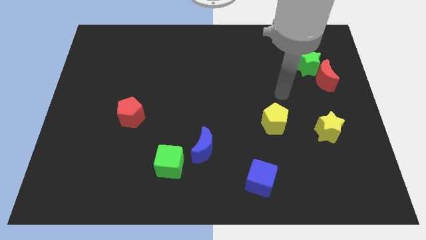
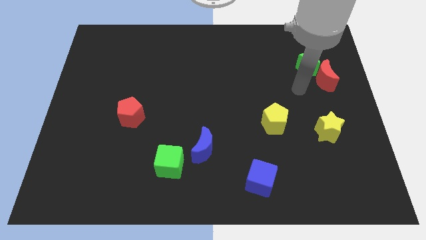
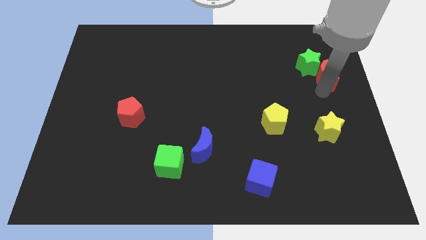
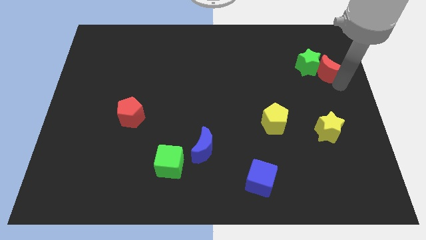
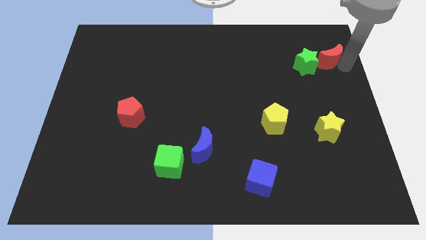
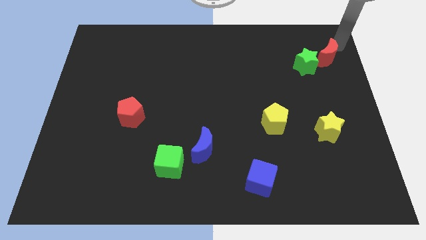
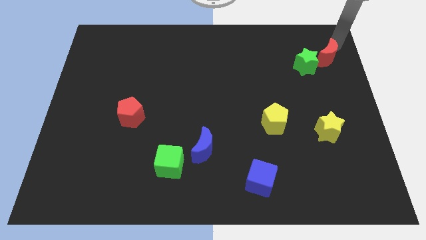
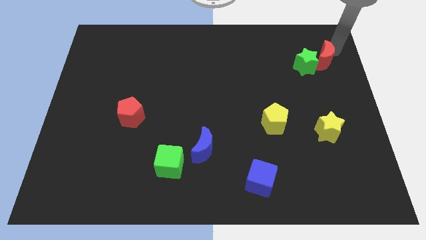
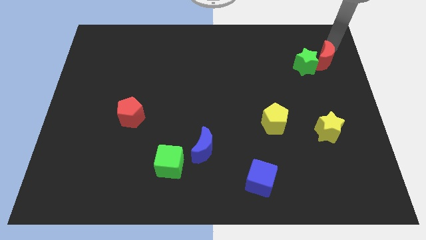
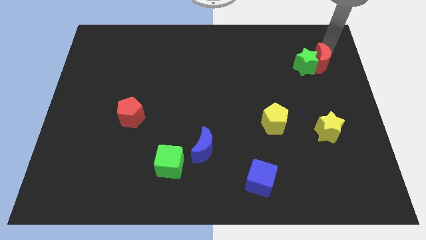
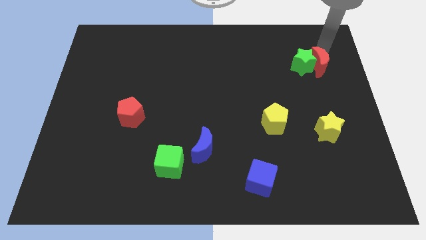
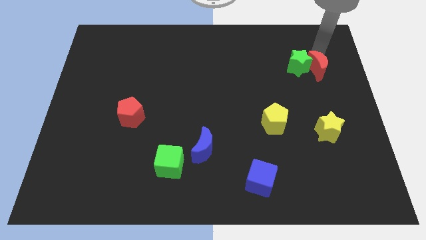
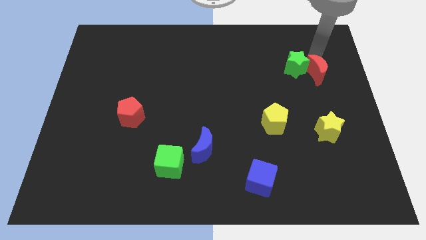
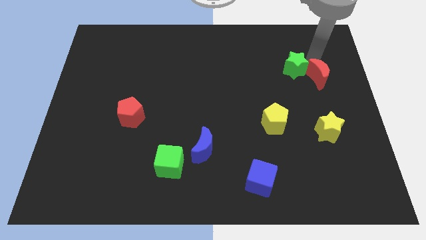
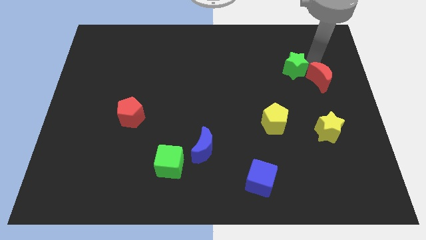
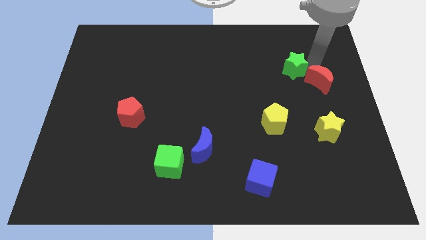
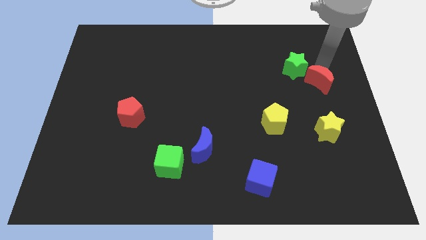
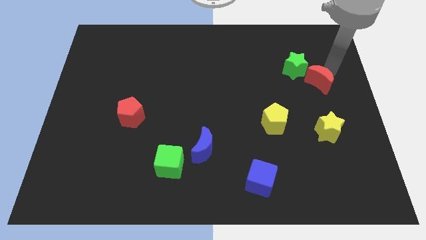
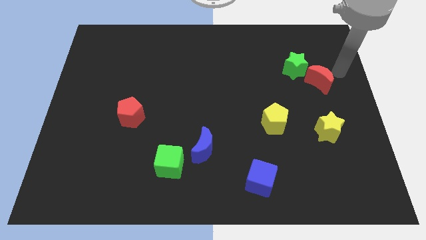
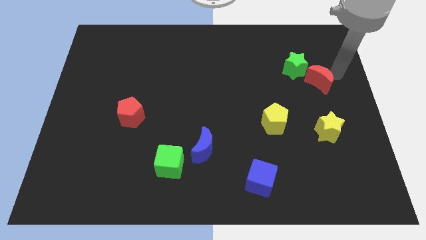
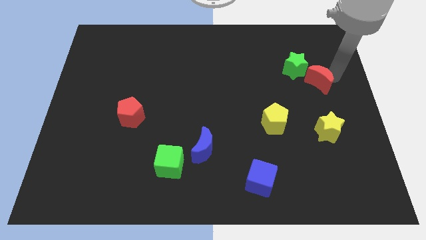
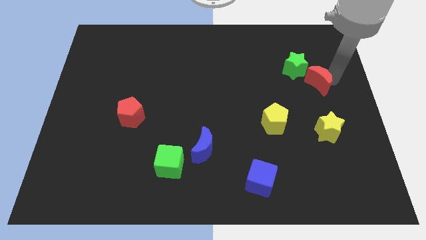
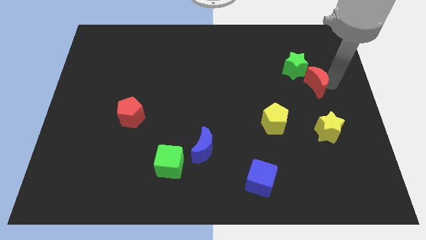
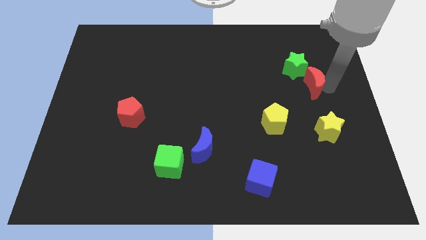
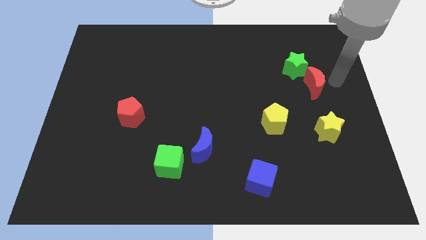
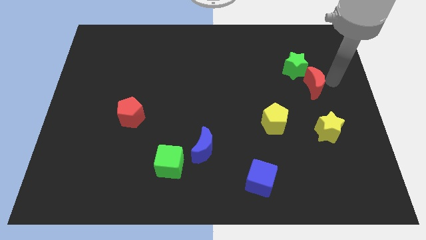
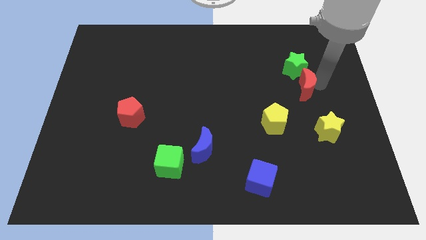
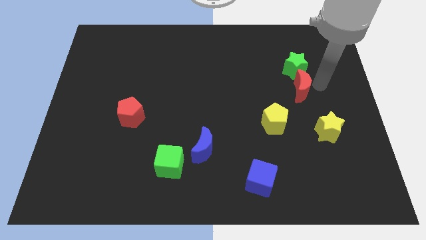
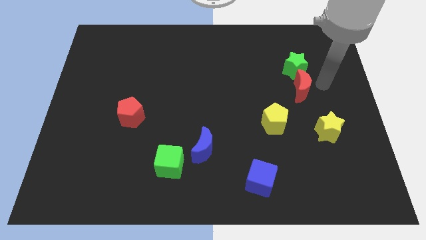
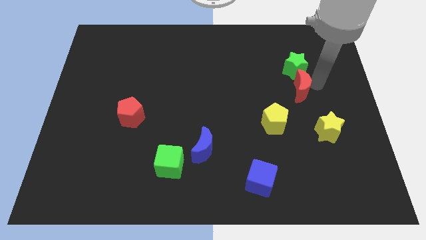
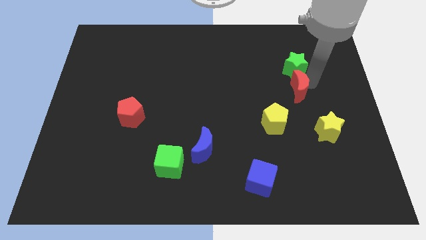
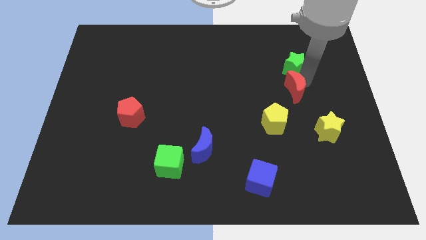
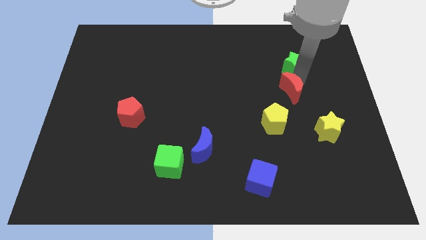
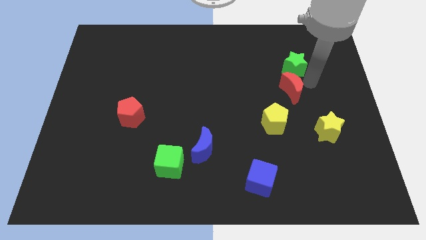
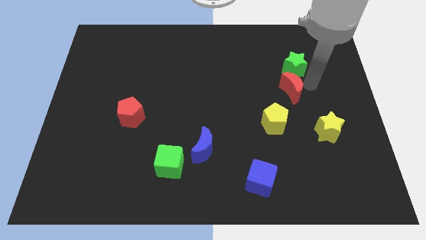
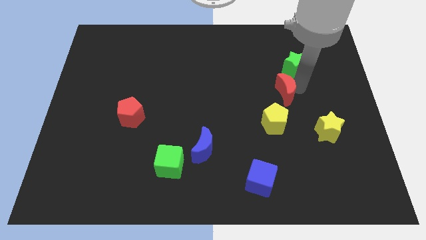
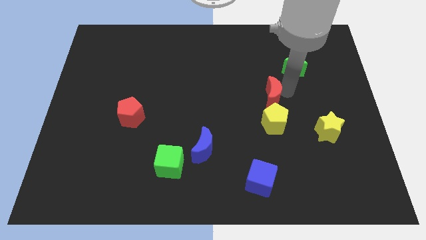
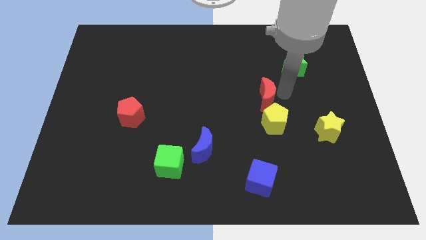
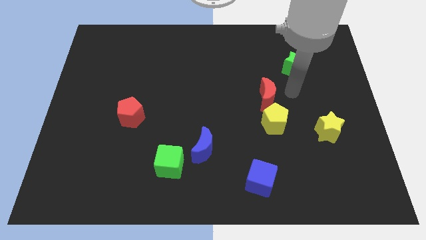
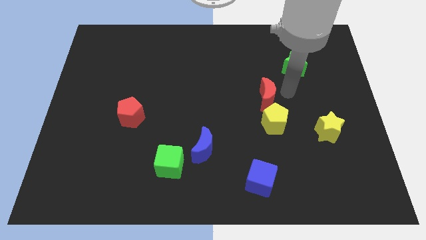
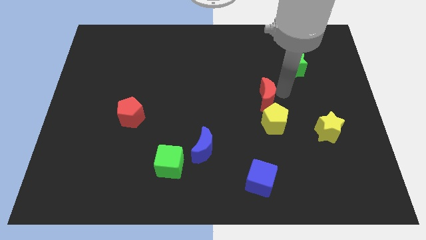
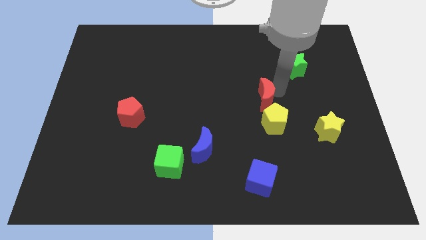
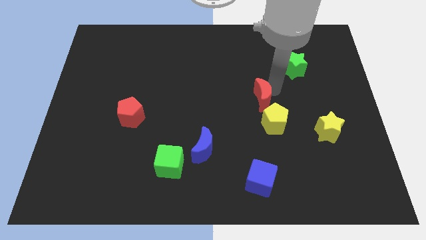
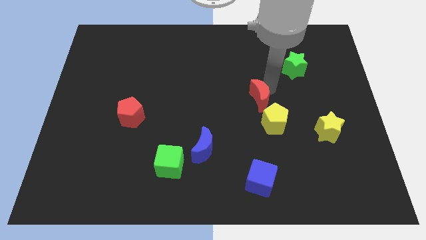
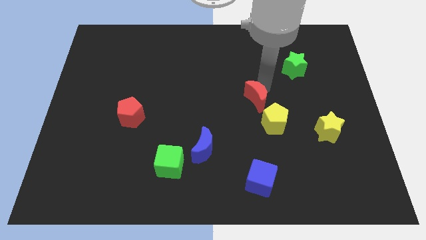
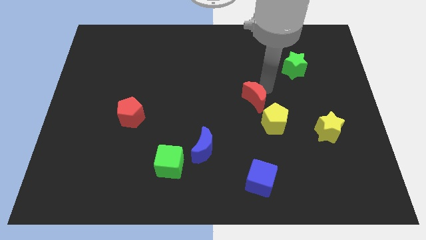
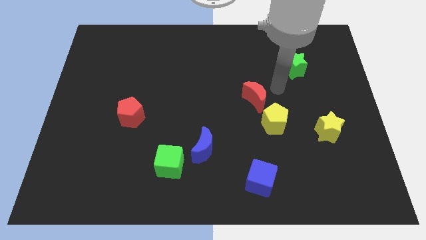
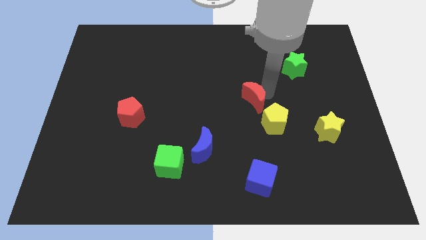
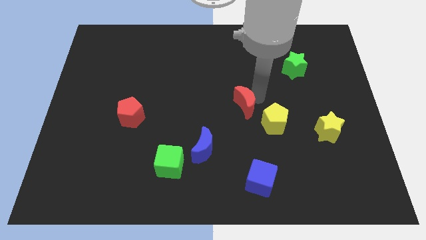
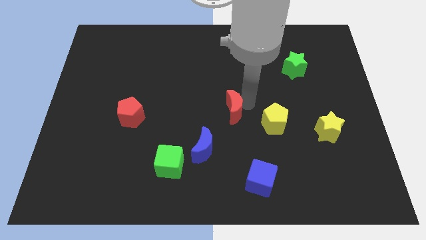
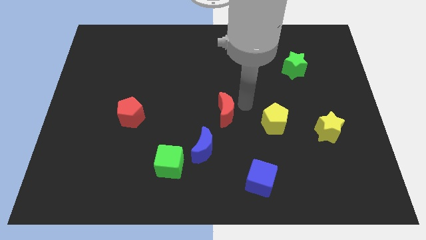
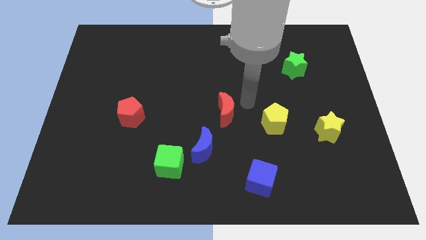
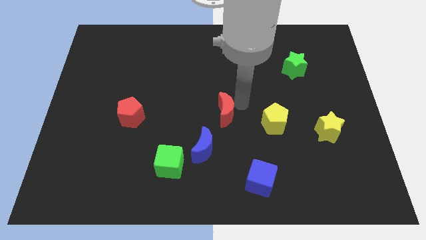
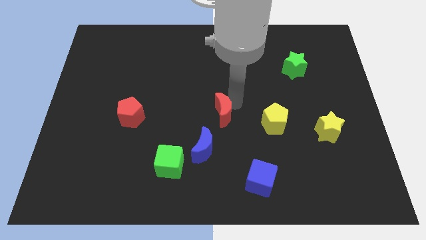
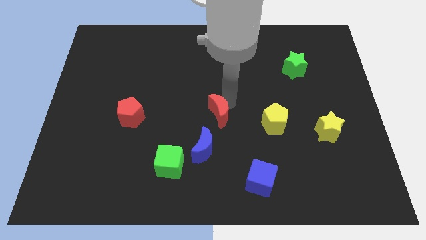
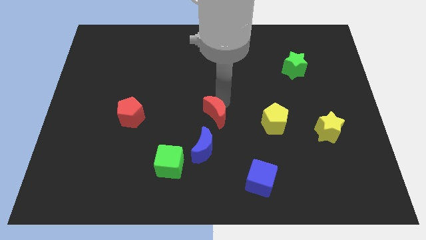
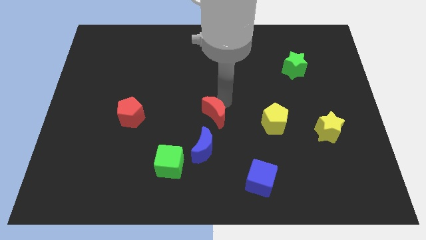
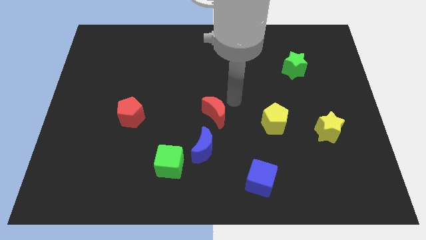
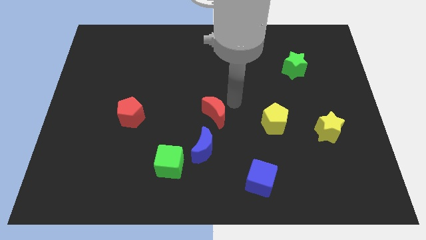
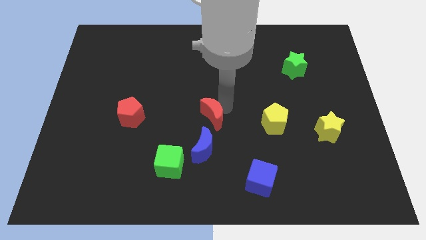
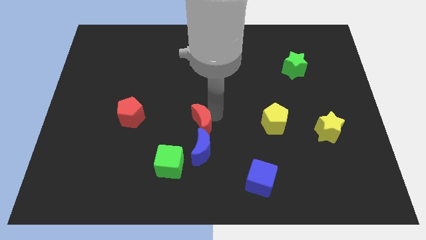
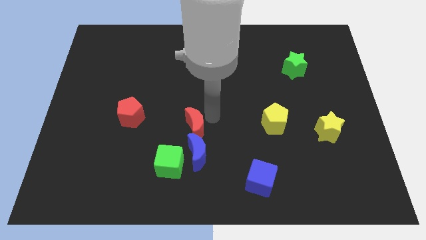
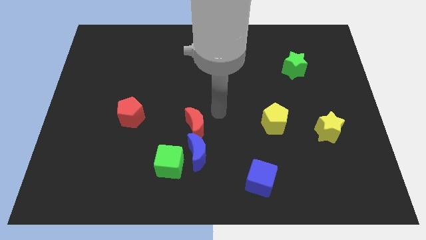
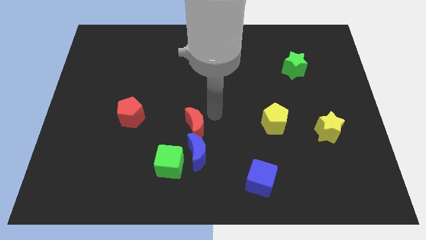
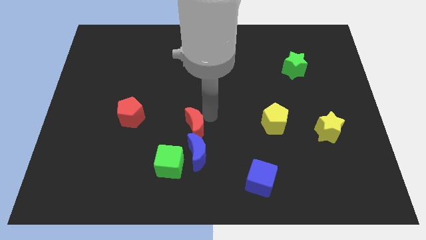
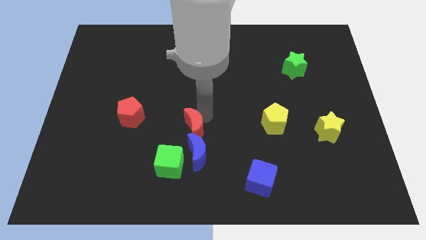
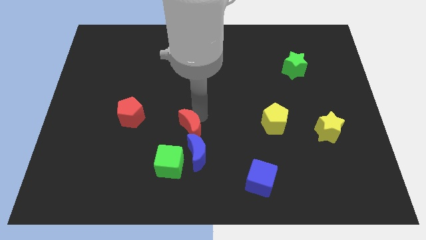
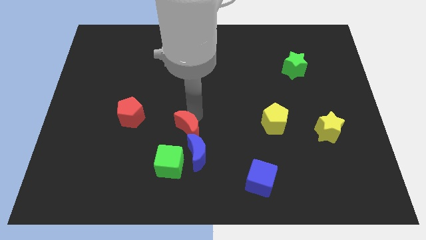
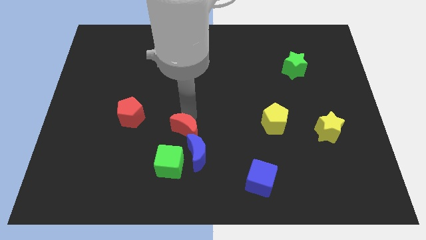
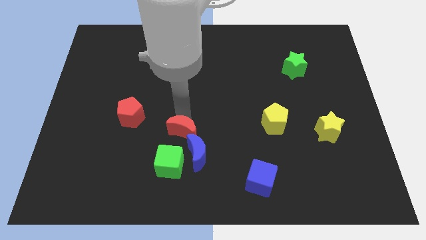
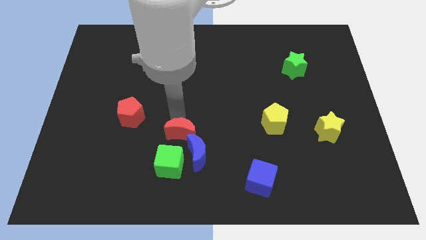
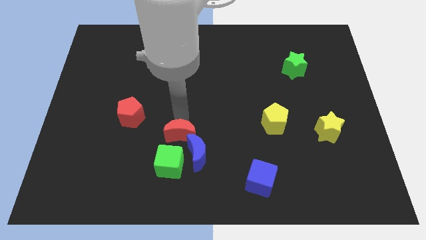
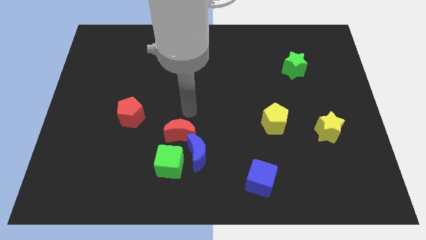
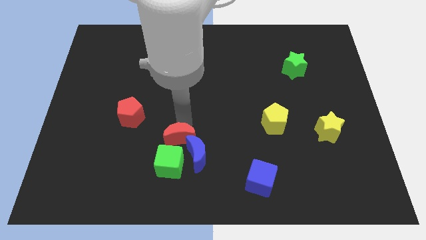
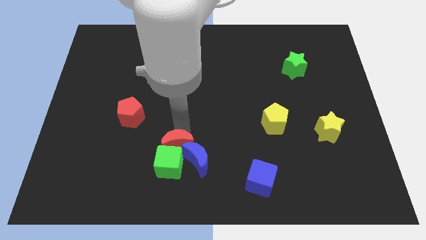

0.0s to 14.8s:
move the red moon to the green cube
